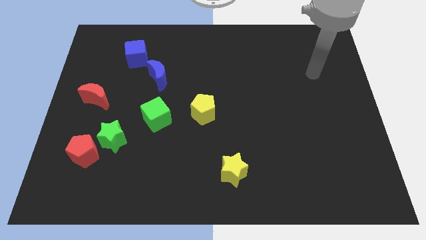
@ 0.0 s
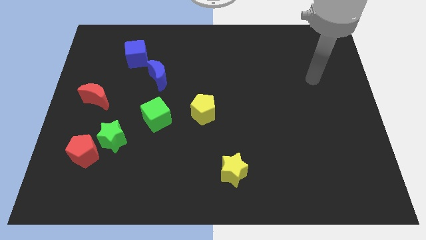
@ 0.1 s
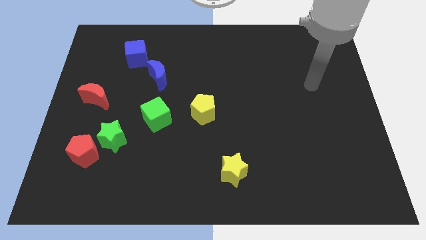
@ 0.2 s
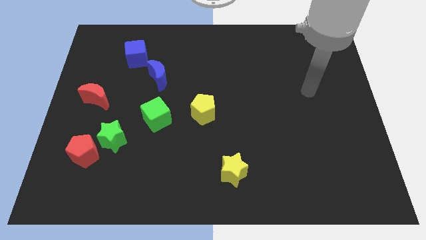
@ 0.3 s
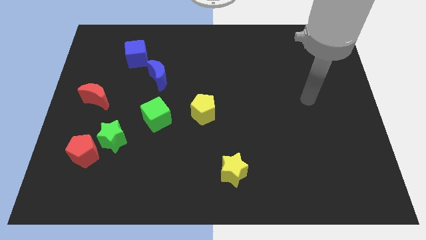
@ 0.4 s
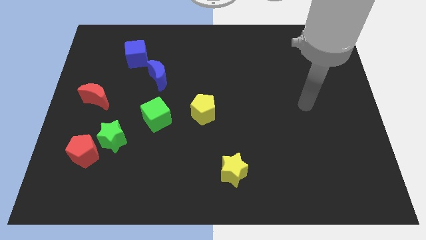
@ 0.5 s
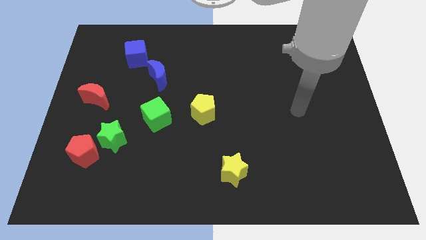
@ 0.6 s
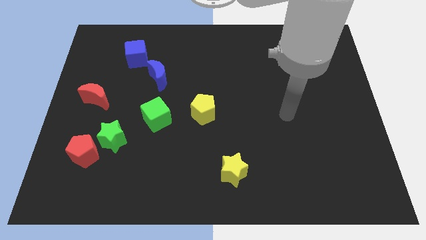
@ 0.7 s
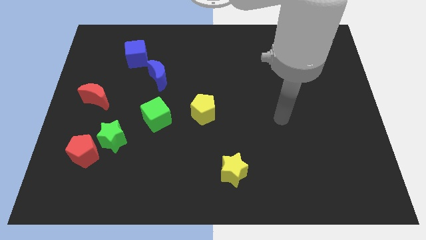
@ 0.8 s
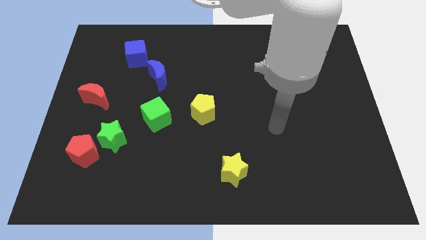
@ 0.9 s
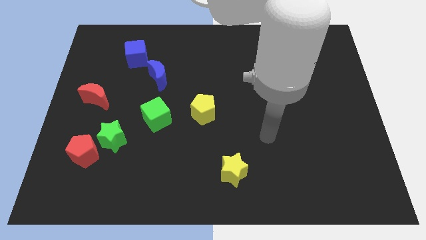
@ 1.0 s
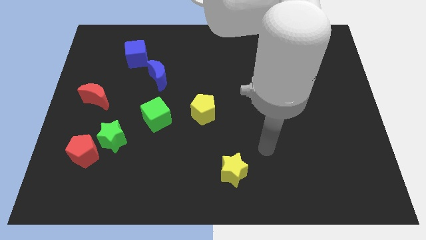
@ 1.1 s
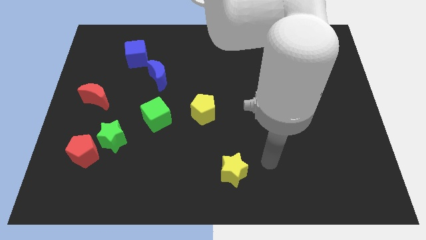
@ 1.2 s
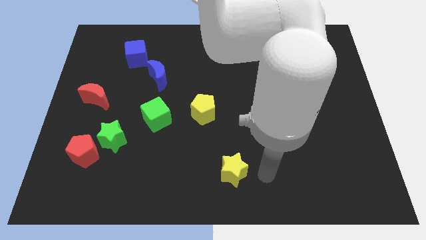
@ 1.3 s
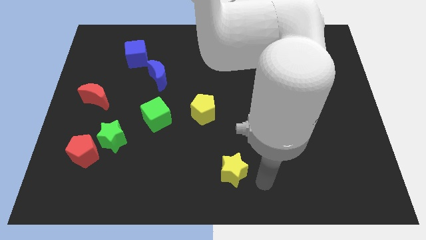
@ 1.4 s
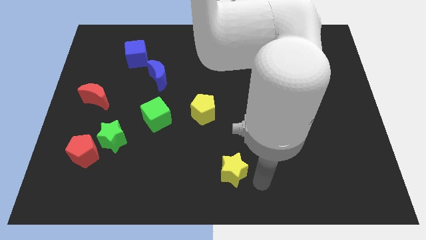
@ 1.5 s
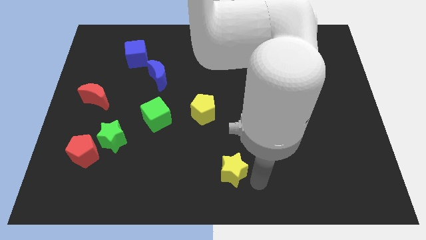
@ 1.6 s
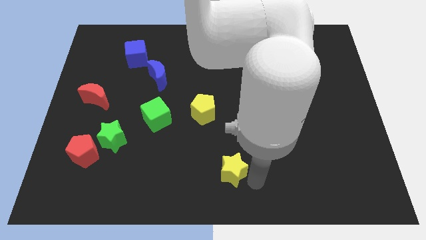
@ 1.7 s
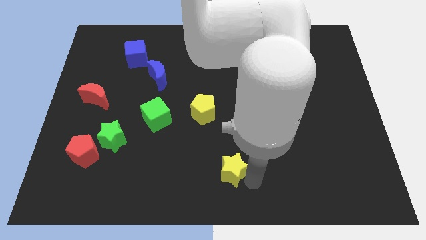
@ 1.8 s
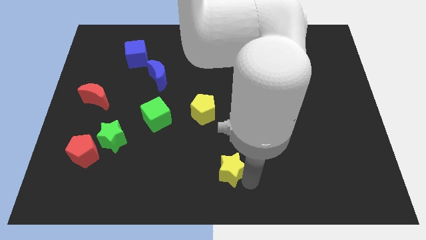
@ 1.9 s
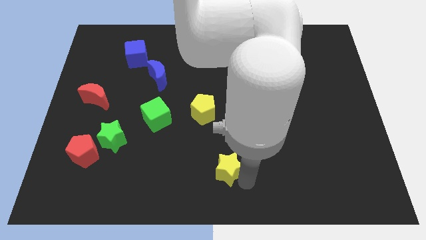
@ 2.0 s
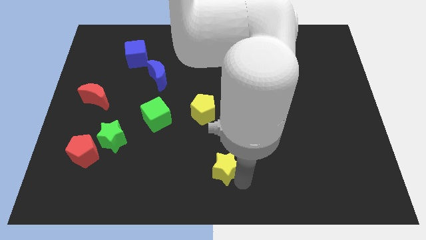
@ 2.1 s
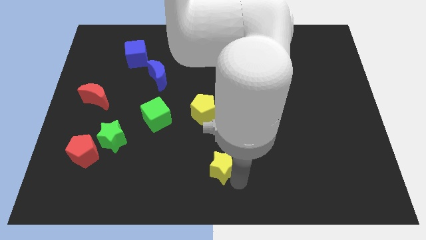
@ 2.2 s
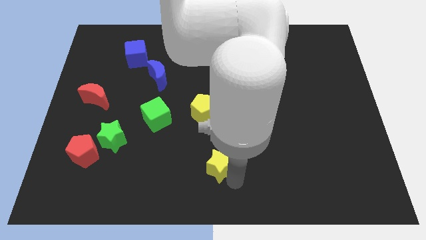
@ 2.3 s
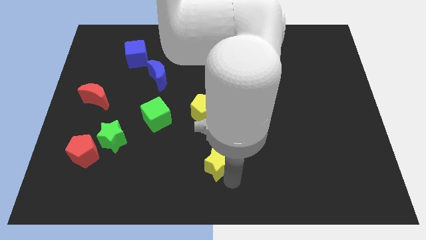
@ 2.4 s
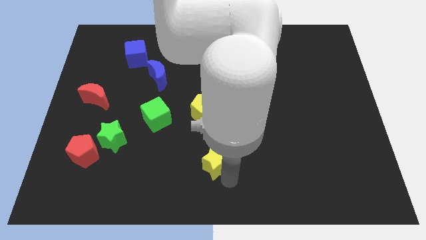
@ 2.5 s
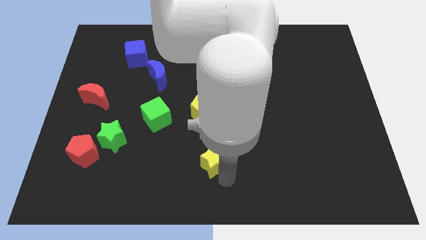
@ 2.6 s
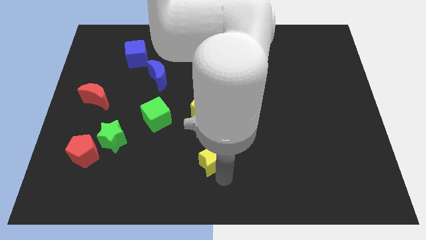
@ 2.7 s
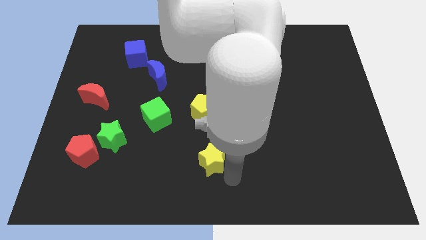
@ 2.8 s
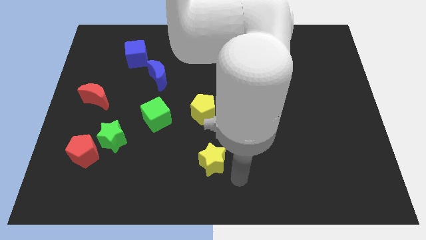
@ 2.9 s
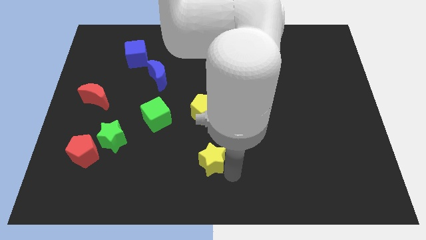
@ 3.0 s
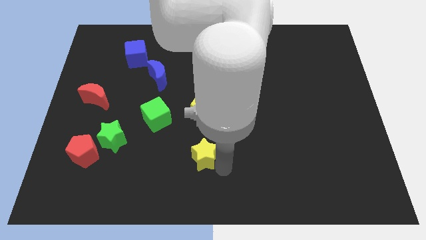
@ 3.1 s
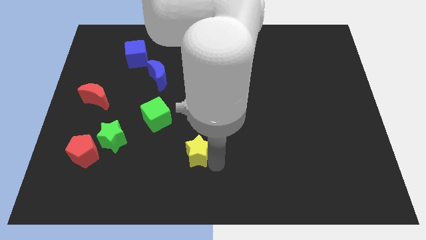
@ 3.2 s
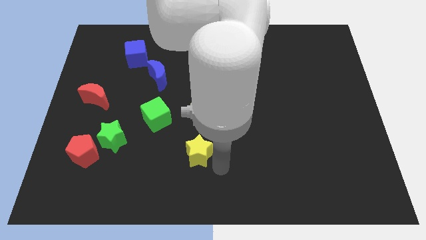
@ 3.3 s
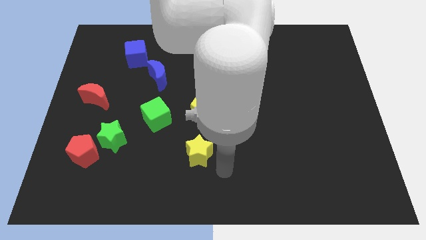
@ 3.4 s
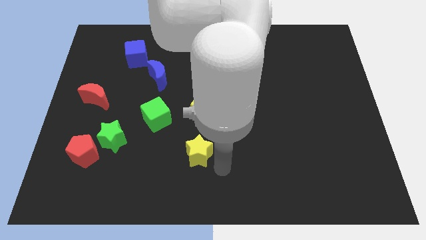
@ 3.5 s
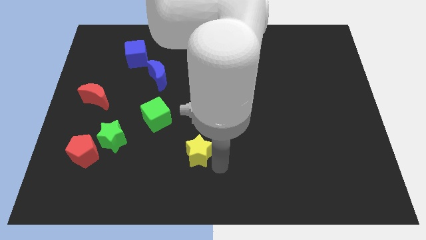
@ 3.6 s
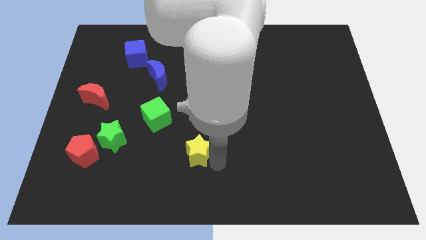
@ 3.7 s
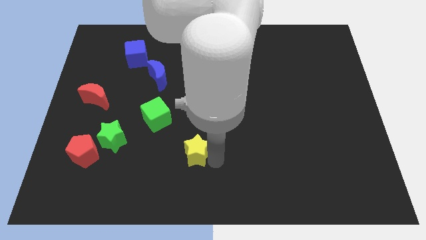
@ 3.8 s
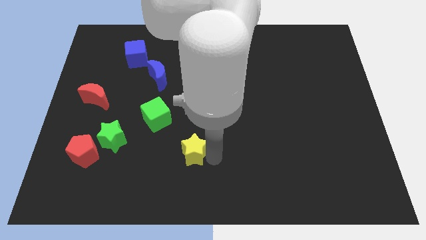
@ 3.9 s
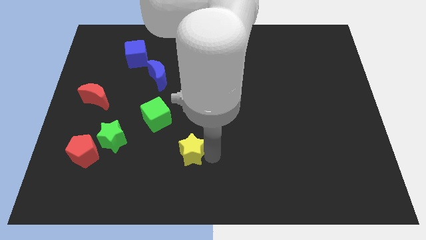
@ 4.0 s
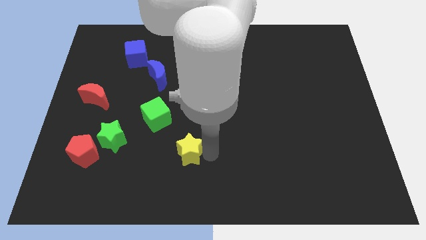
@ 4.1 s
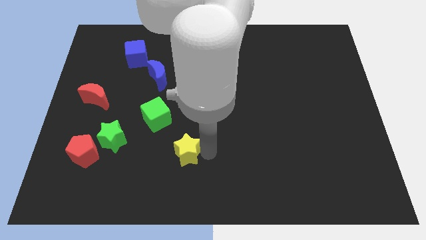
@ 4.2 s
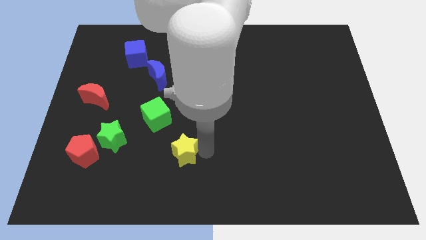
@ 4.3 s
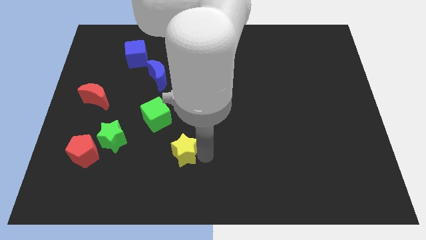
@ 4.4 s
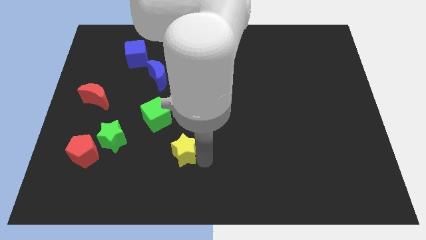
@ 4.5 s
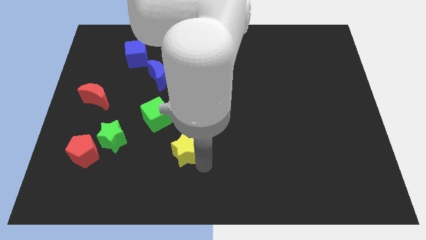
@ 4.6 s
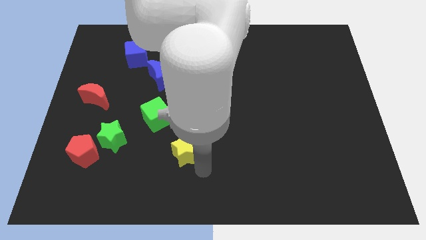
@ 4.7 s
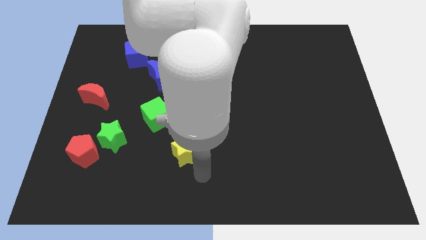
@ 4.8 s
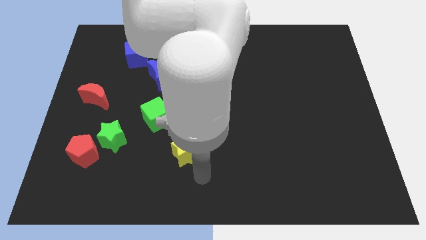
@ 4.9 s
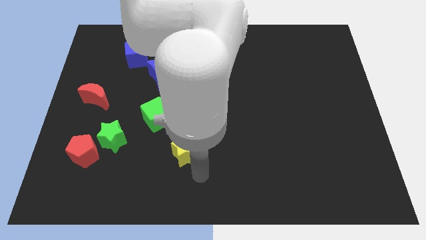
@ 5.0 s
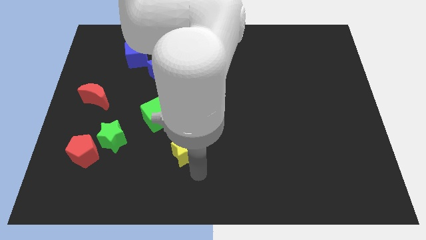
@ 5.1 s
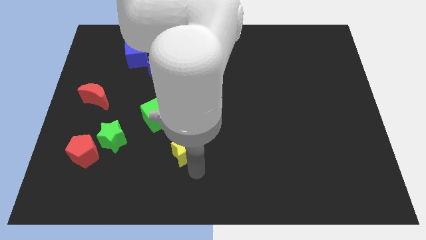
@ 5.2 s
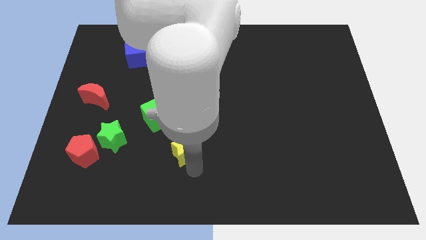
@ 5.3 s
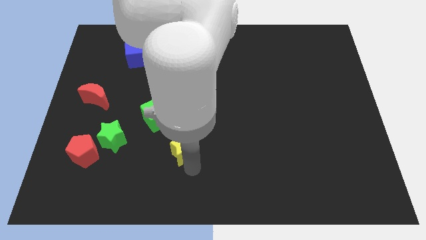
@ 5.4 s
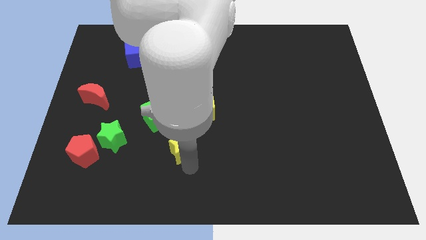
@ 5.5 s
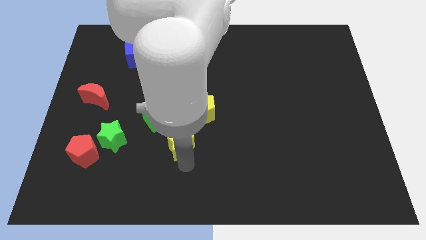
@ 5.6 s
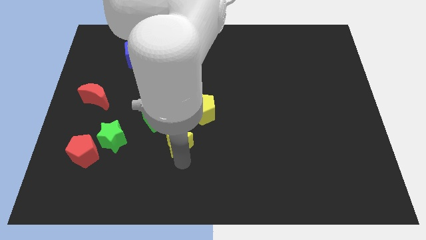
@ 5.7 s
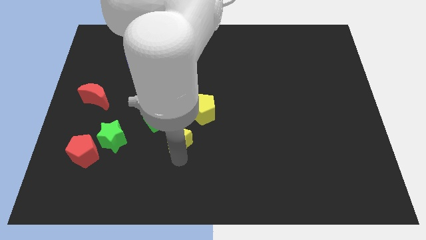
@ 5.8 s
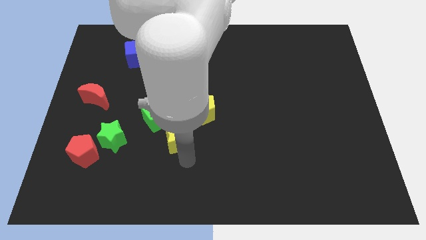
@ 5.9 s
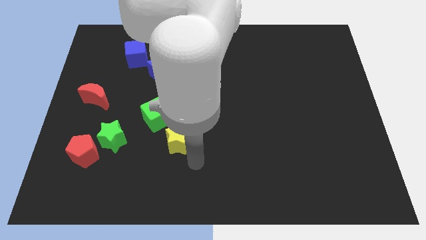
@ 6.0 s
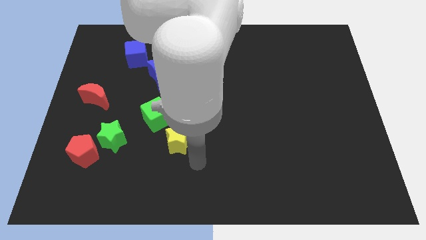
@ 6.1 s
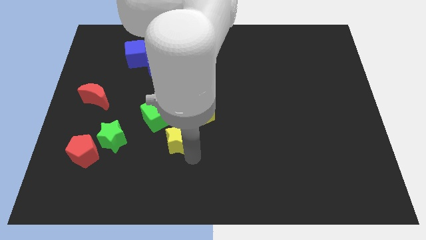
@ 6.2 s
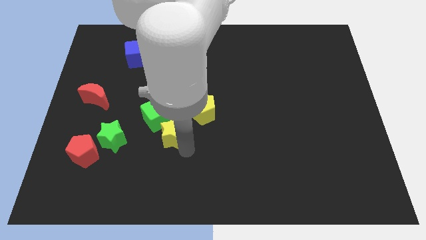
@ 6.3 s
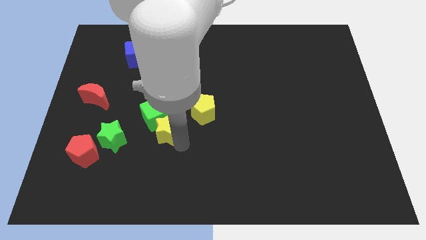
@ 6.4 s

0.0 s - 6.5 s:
slide the yellow star next to the green cube

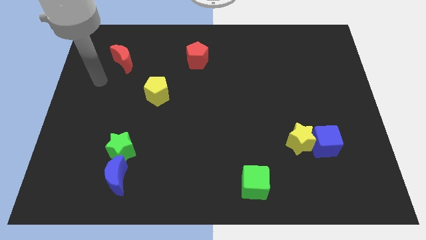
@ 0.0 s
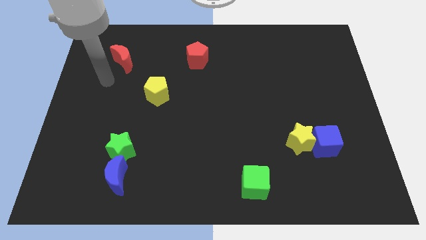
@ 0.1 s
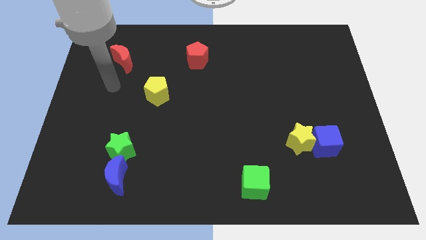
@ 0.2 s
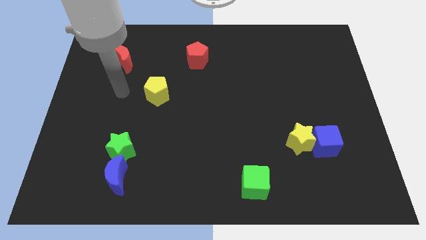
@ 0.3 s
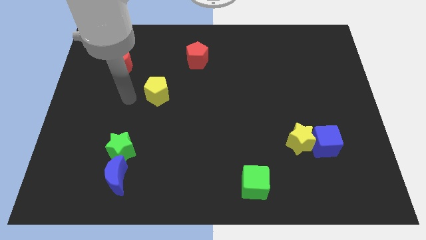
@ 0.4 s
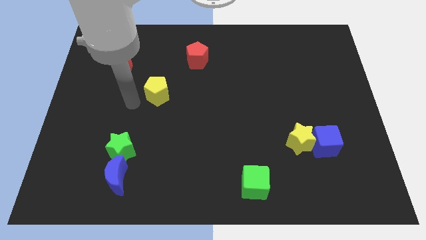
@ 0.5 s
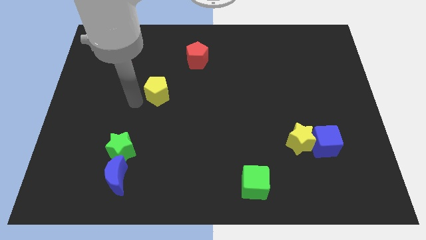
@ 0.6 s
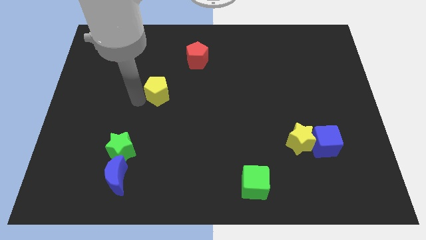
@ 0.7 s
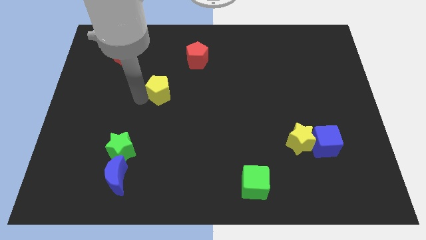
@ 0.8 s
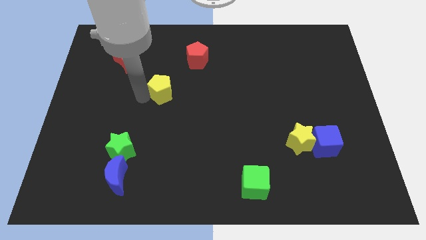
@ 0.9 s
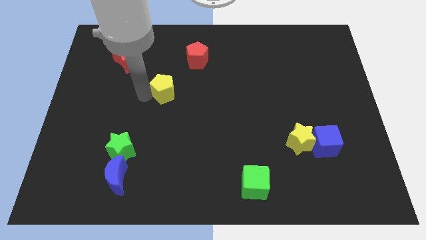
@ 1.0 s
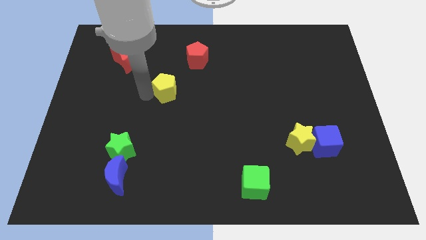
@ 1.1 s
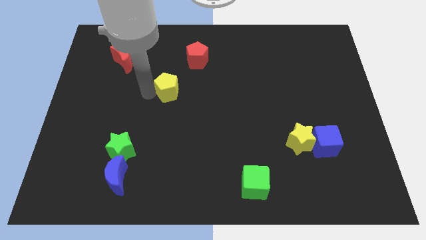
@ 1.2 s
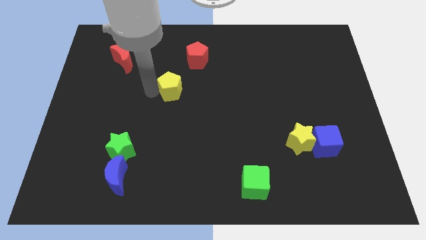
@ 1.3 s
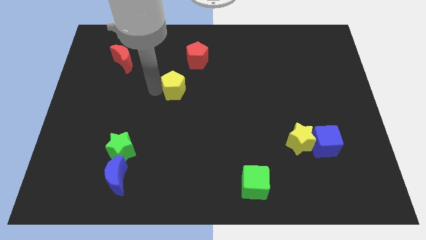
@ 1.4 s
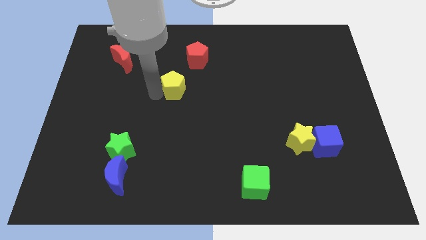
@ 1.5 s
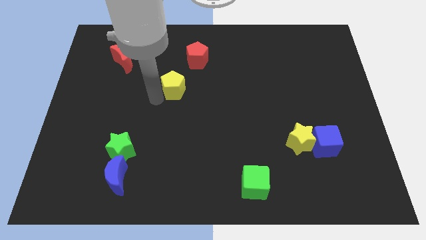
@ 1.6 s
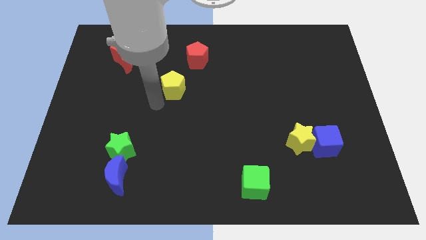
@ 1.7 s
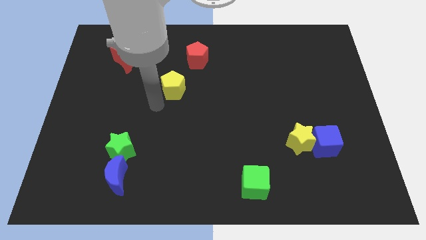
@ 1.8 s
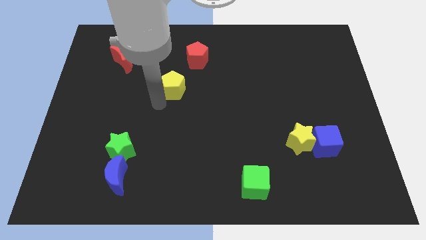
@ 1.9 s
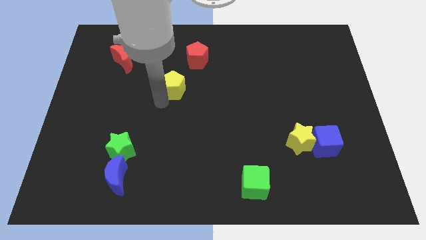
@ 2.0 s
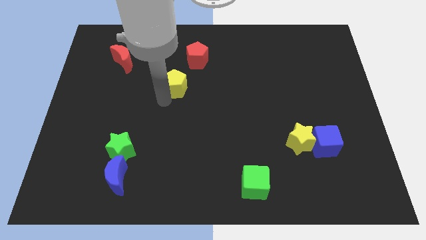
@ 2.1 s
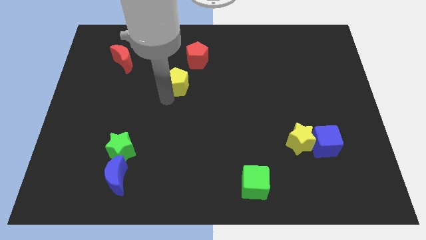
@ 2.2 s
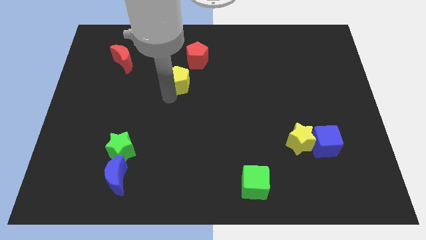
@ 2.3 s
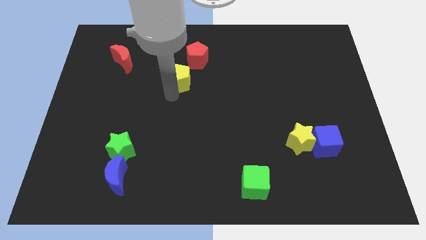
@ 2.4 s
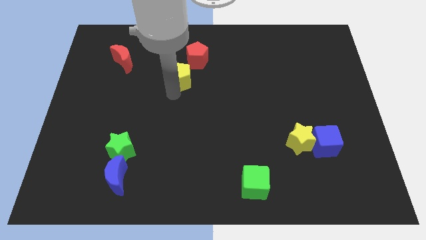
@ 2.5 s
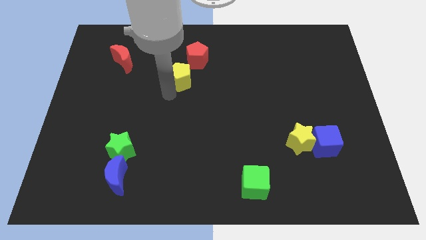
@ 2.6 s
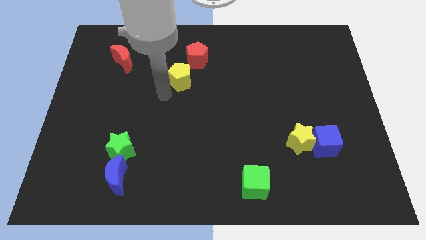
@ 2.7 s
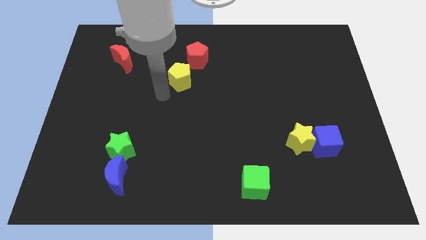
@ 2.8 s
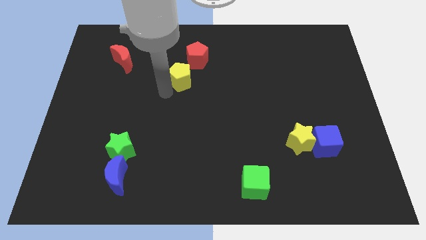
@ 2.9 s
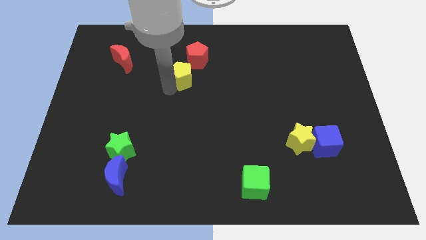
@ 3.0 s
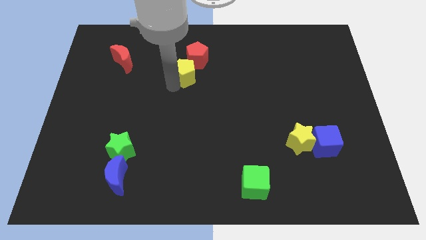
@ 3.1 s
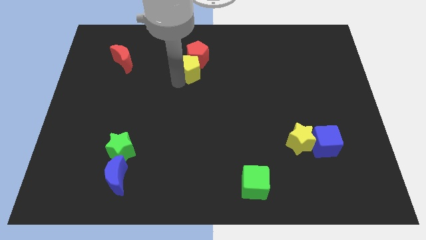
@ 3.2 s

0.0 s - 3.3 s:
move the yellow pentagon towards the red pentagon
